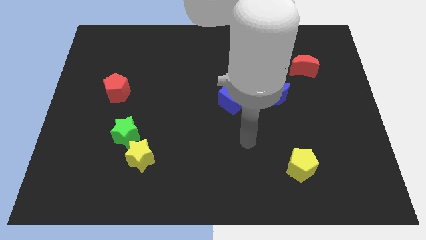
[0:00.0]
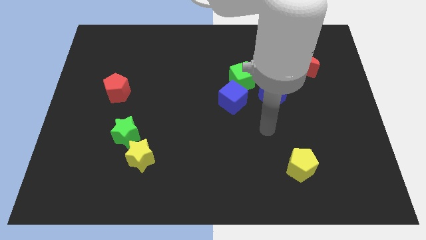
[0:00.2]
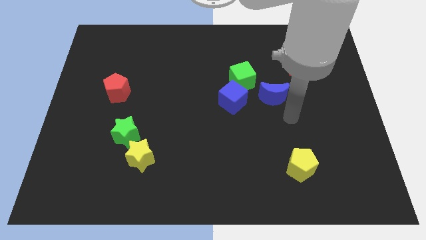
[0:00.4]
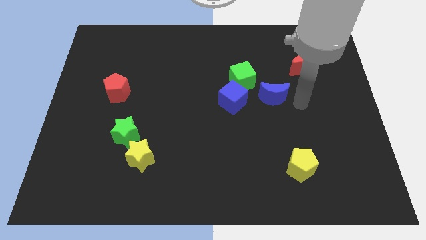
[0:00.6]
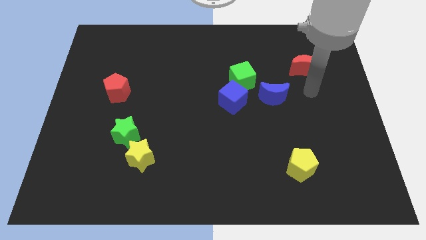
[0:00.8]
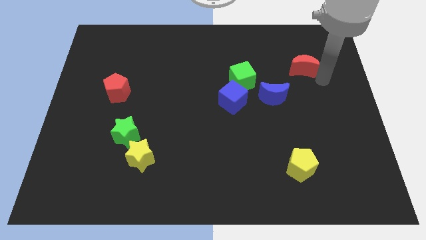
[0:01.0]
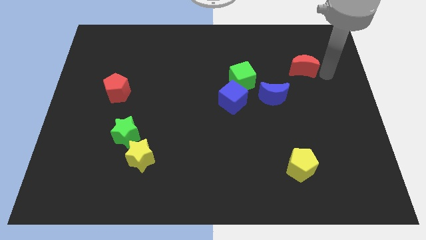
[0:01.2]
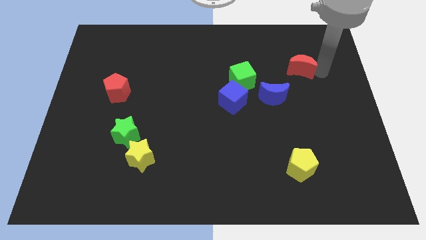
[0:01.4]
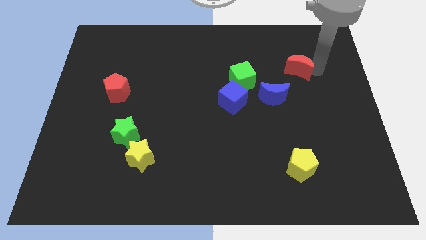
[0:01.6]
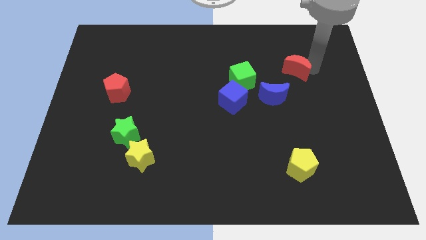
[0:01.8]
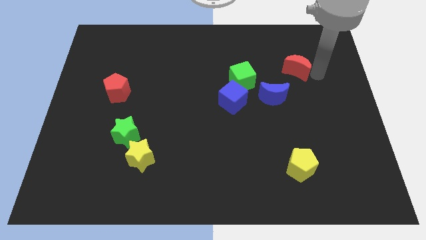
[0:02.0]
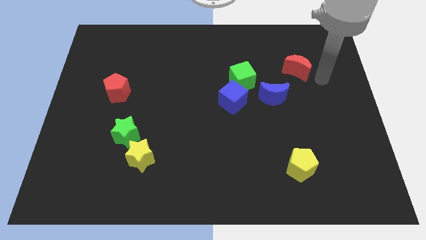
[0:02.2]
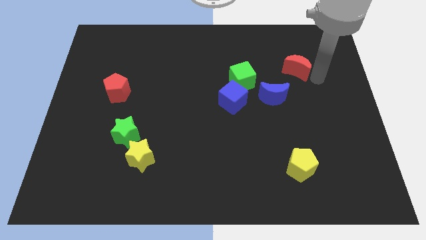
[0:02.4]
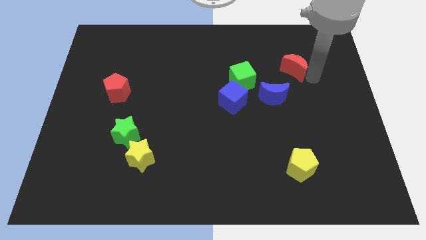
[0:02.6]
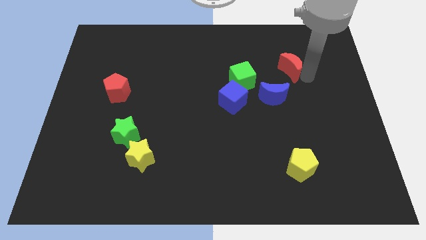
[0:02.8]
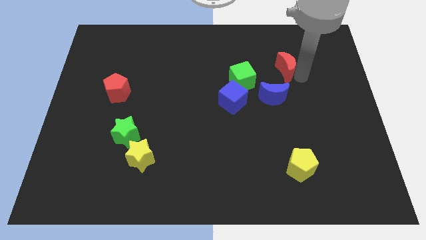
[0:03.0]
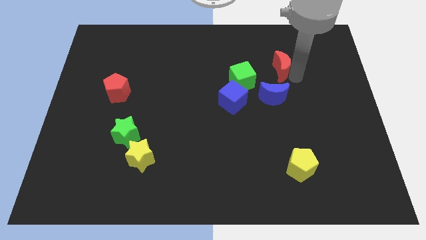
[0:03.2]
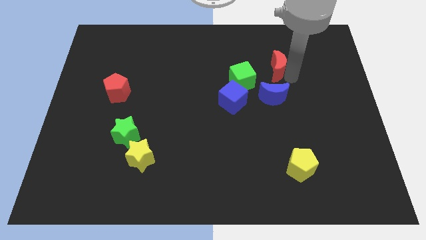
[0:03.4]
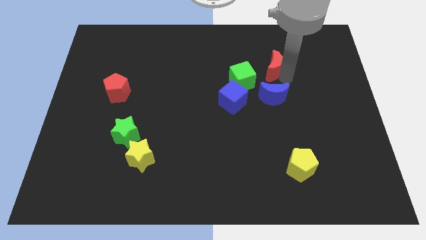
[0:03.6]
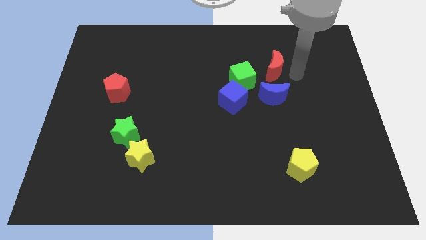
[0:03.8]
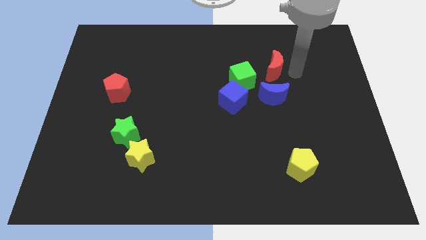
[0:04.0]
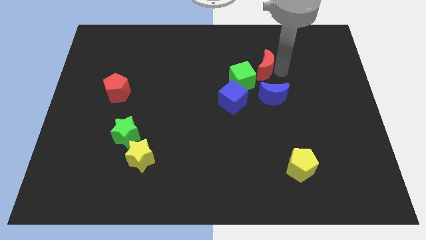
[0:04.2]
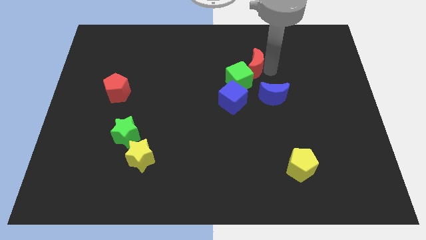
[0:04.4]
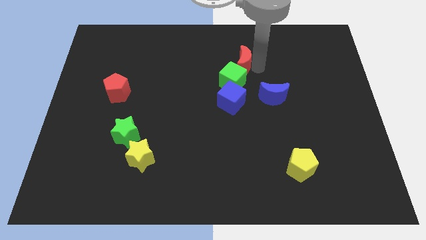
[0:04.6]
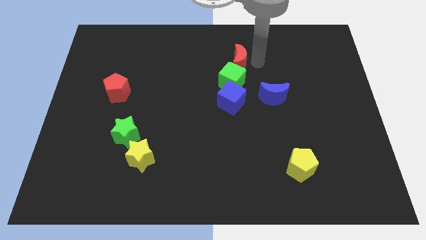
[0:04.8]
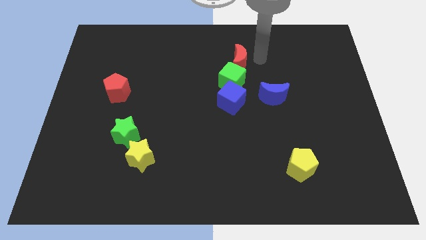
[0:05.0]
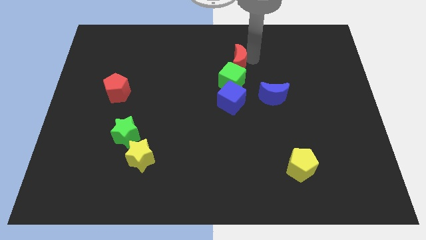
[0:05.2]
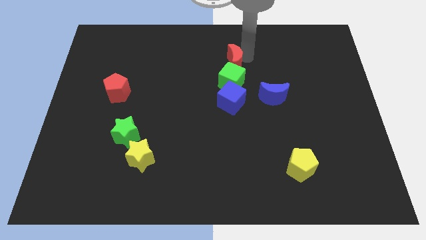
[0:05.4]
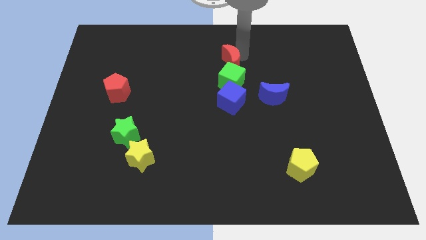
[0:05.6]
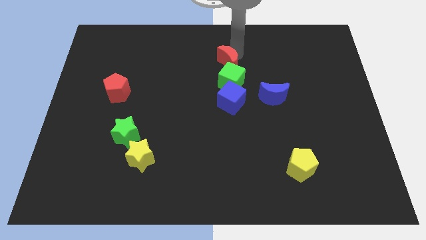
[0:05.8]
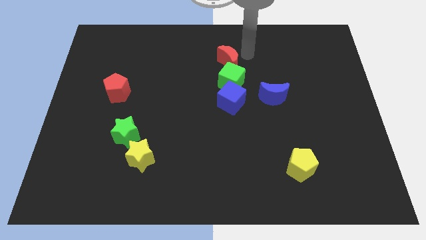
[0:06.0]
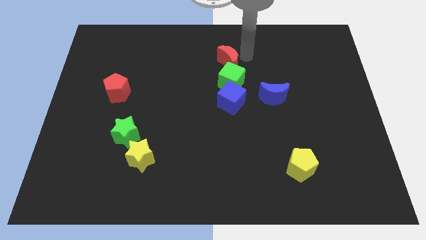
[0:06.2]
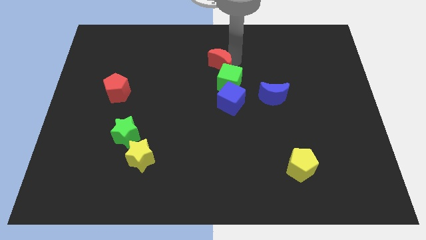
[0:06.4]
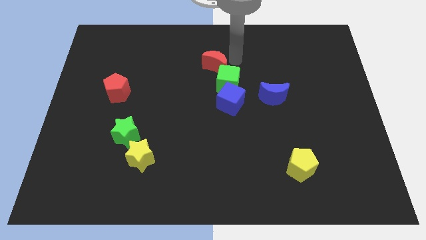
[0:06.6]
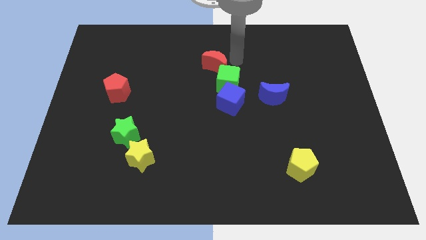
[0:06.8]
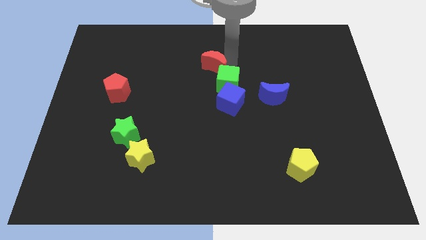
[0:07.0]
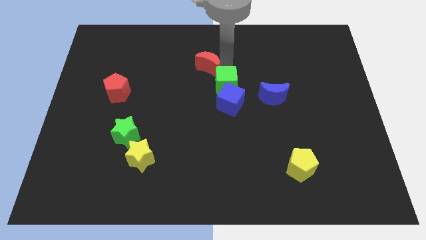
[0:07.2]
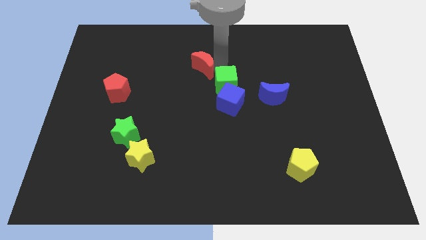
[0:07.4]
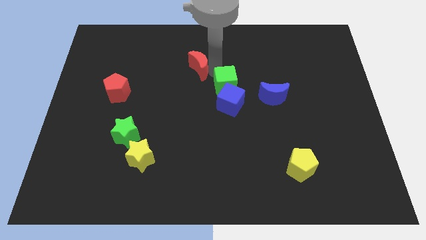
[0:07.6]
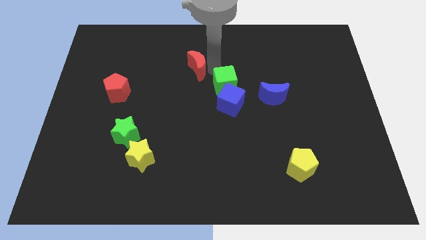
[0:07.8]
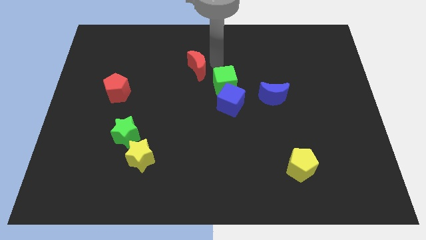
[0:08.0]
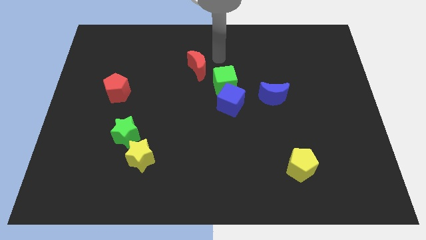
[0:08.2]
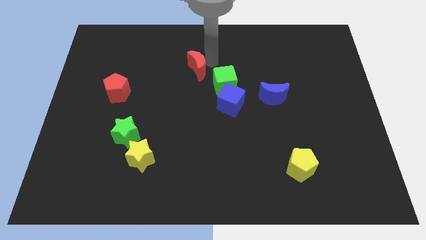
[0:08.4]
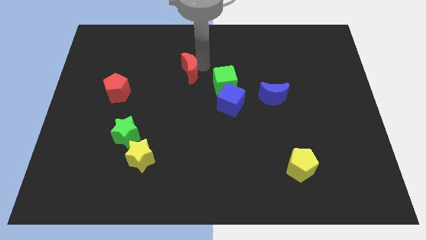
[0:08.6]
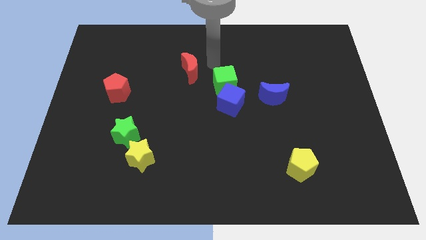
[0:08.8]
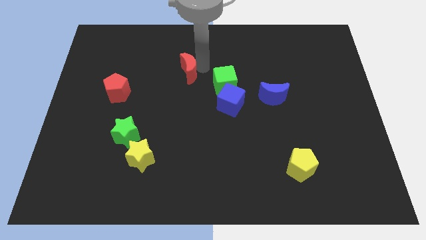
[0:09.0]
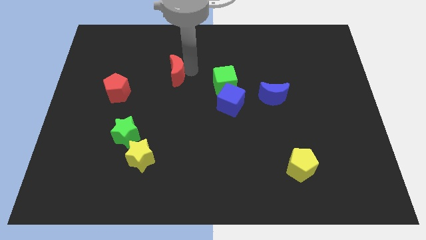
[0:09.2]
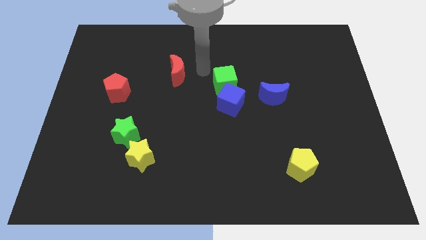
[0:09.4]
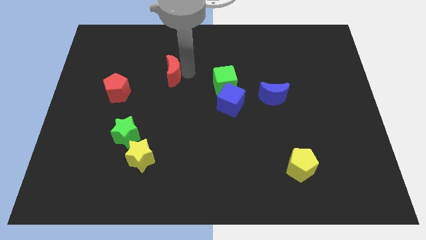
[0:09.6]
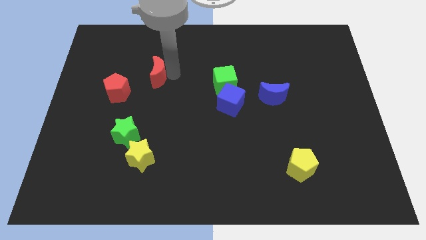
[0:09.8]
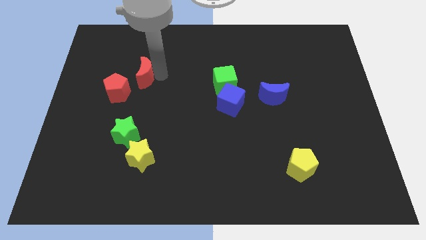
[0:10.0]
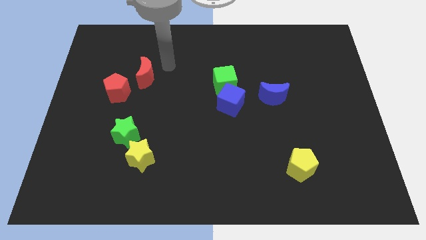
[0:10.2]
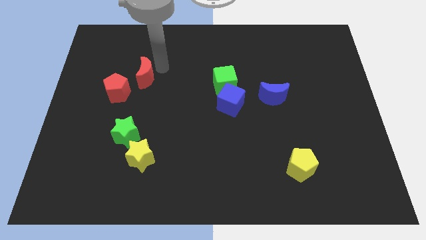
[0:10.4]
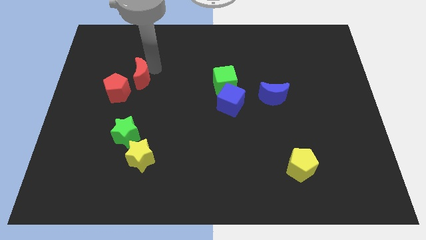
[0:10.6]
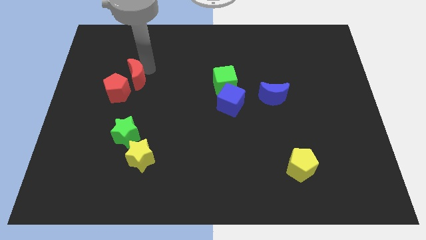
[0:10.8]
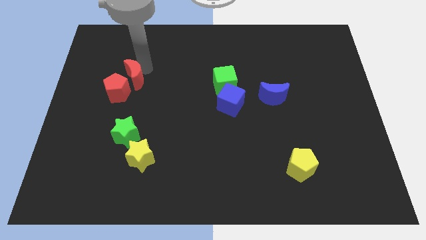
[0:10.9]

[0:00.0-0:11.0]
push the red moon towards the red pentagon
